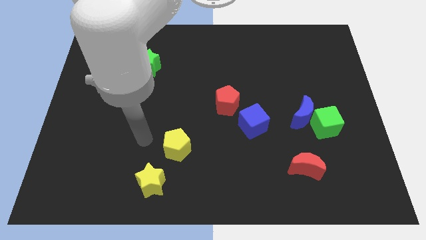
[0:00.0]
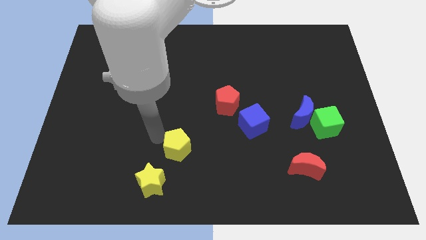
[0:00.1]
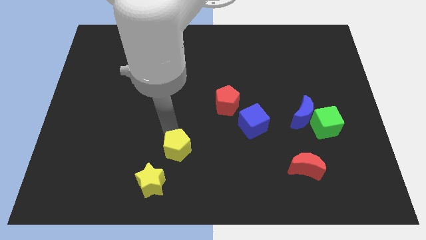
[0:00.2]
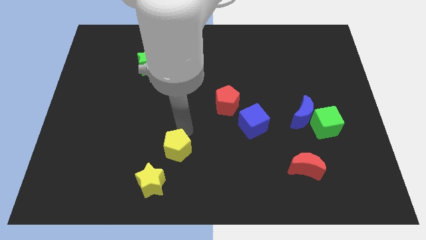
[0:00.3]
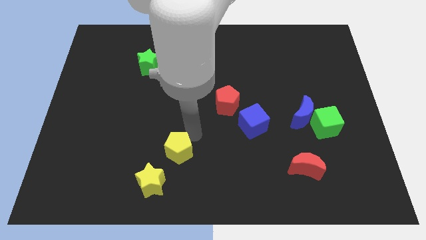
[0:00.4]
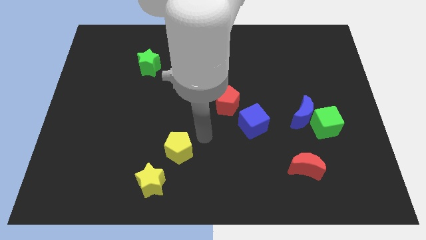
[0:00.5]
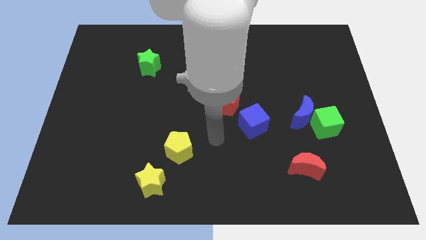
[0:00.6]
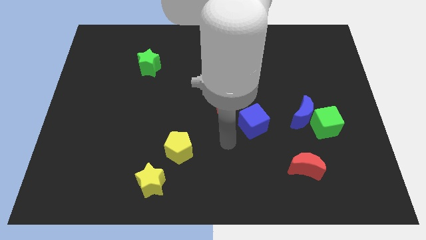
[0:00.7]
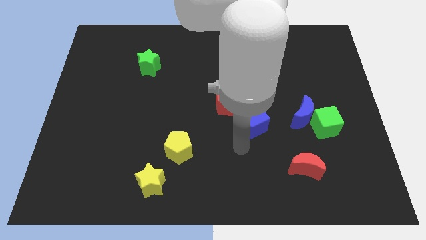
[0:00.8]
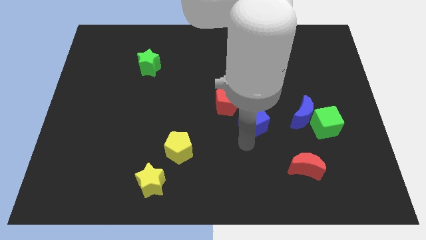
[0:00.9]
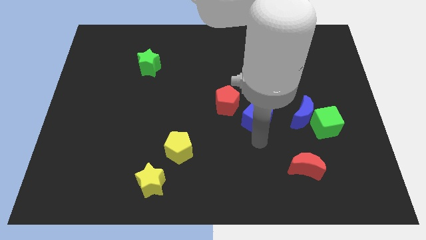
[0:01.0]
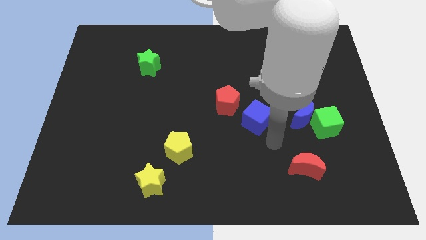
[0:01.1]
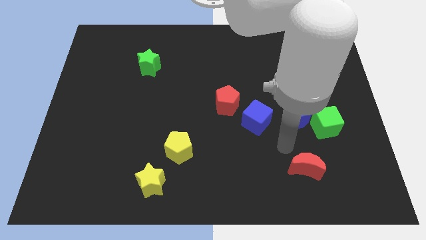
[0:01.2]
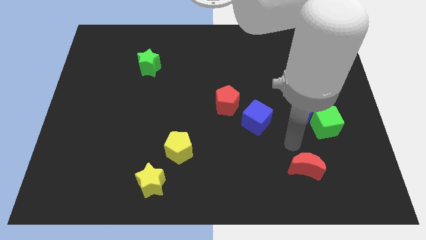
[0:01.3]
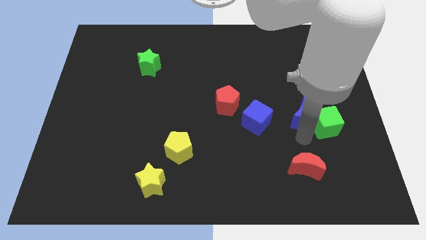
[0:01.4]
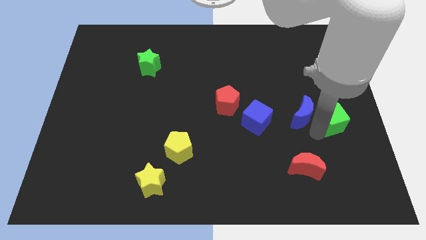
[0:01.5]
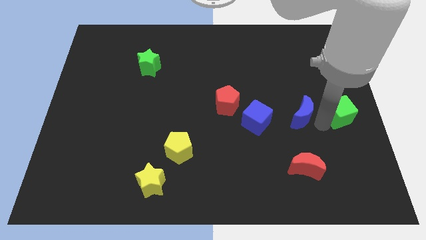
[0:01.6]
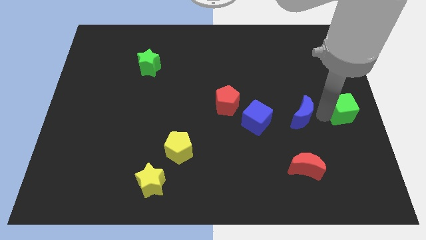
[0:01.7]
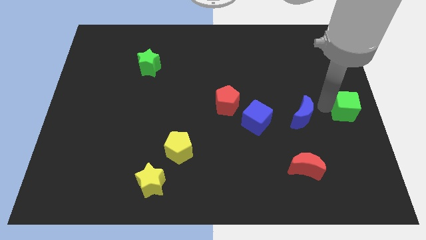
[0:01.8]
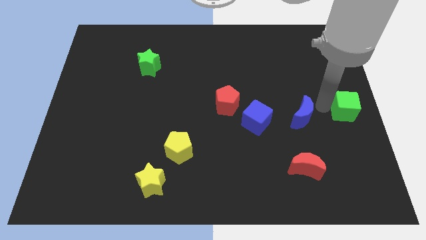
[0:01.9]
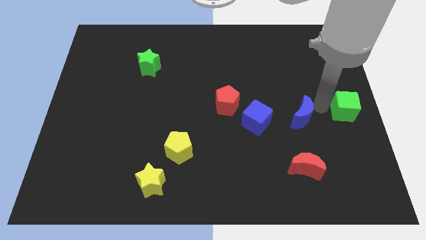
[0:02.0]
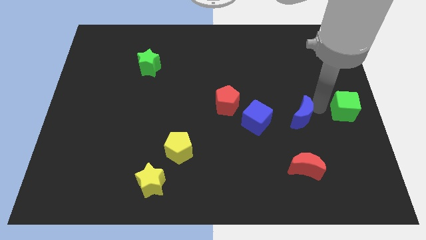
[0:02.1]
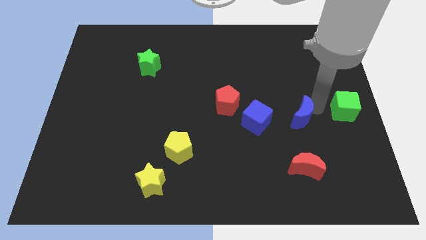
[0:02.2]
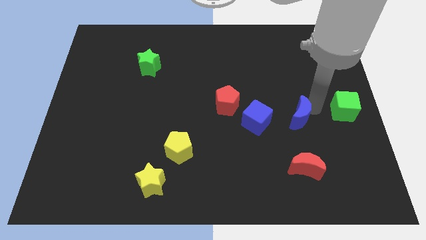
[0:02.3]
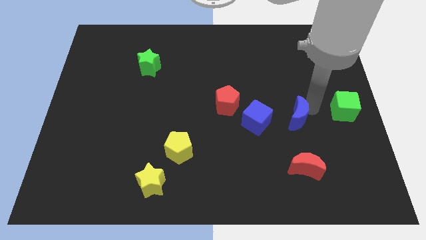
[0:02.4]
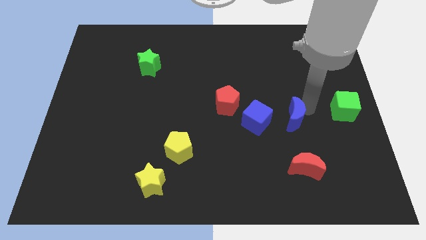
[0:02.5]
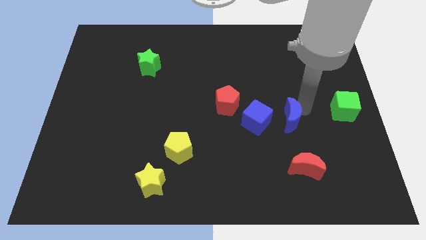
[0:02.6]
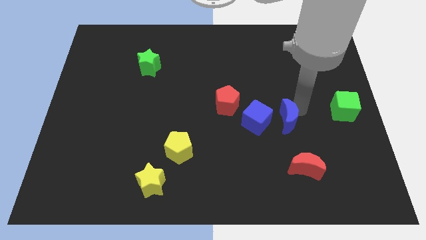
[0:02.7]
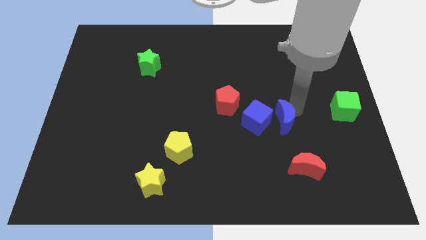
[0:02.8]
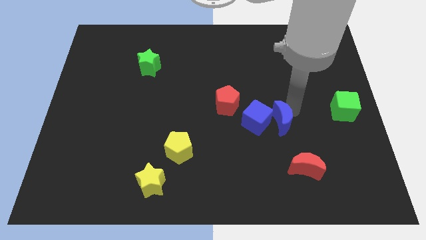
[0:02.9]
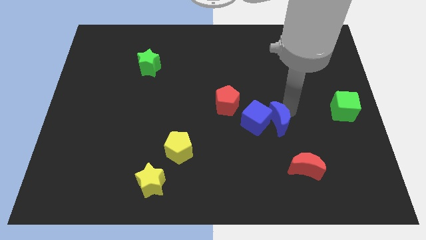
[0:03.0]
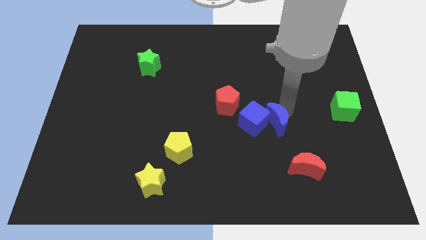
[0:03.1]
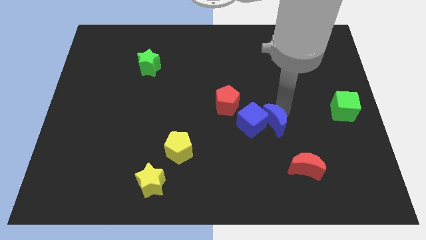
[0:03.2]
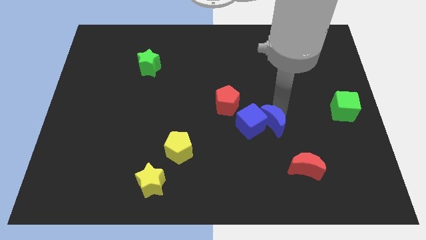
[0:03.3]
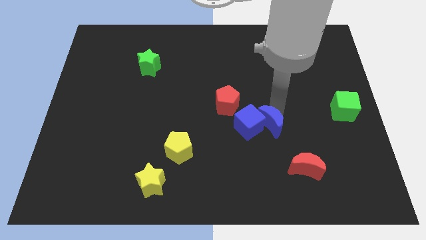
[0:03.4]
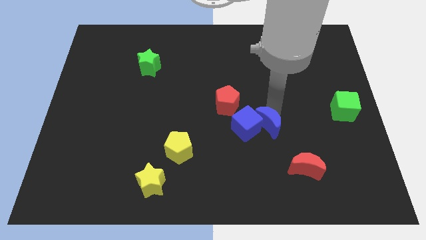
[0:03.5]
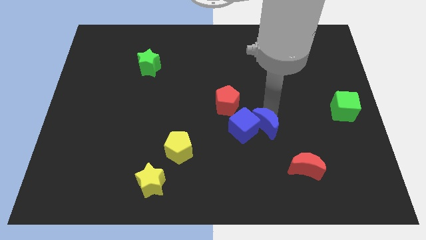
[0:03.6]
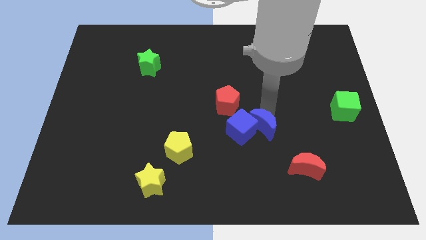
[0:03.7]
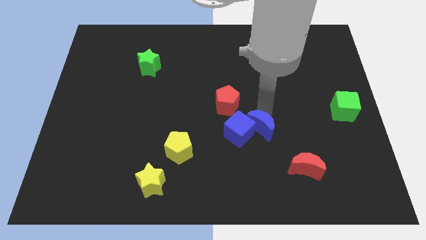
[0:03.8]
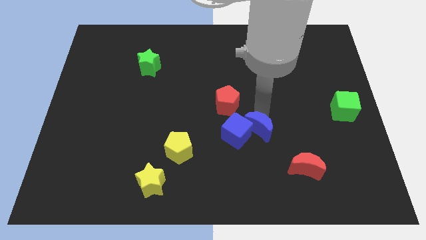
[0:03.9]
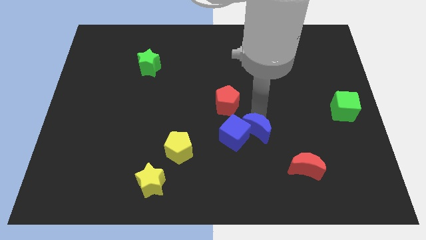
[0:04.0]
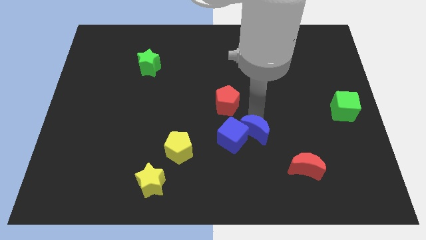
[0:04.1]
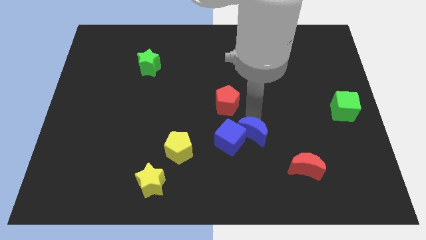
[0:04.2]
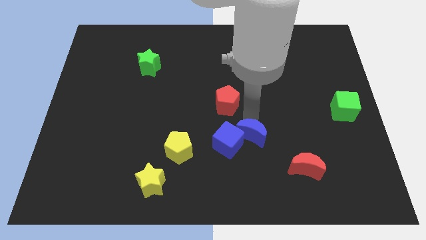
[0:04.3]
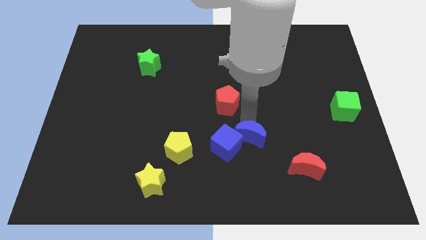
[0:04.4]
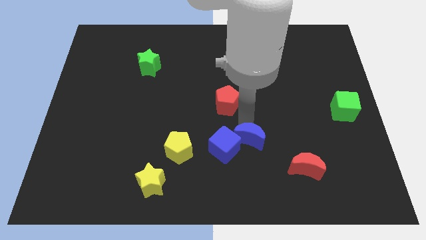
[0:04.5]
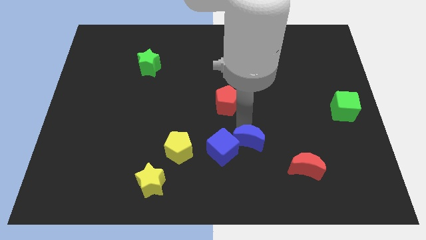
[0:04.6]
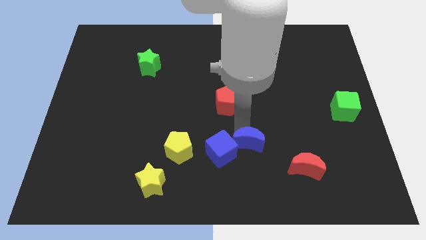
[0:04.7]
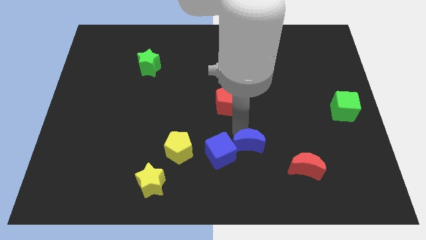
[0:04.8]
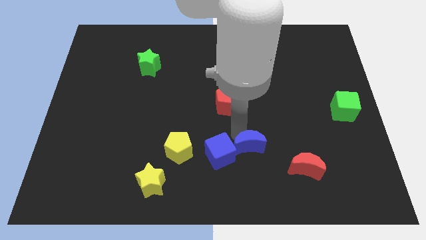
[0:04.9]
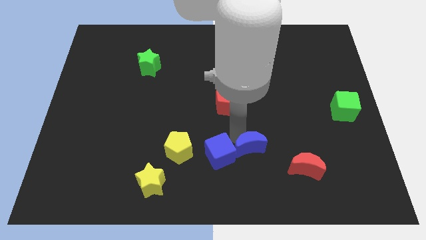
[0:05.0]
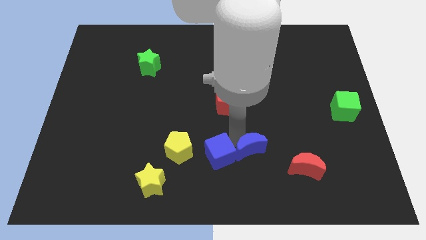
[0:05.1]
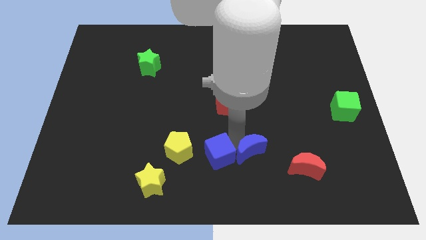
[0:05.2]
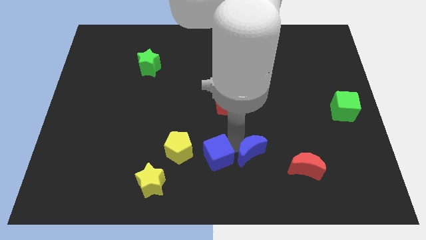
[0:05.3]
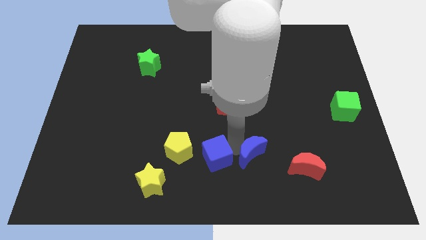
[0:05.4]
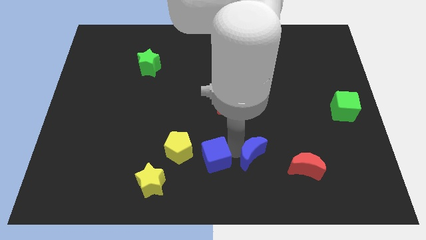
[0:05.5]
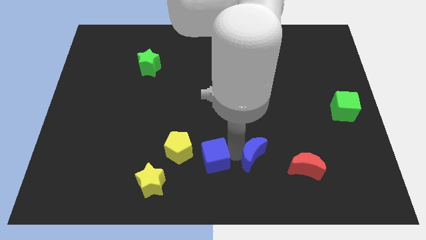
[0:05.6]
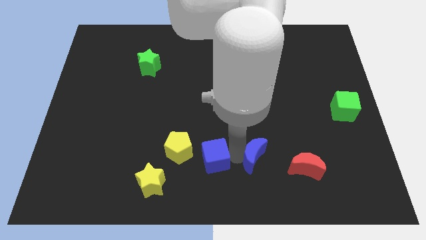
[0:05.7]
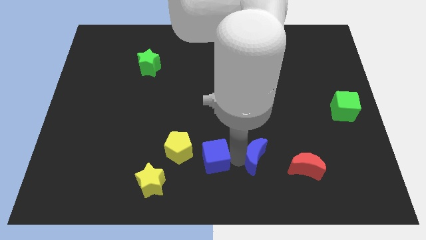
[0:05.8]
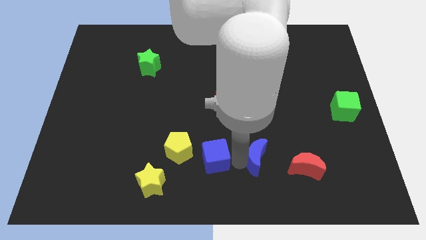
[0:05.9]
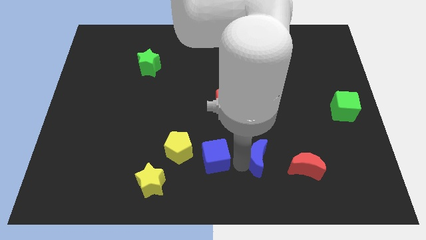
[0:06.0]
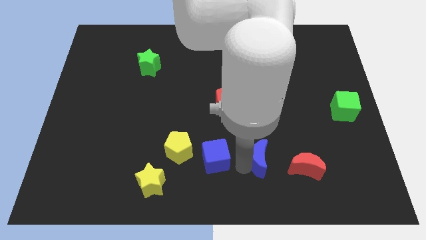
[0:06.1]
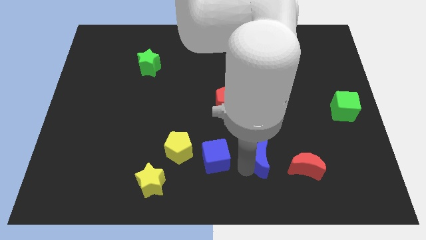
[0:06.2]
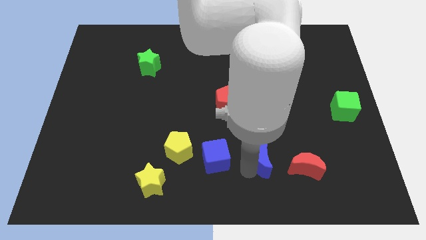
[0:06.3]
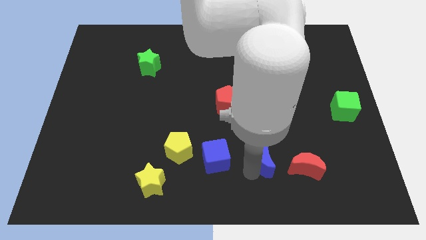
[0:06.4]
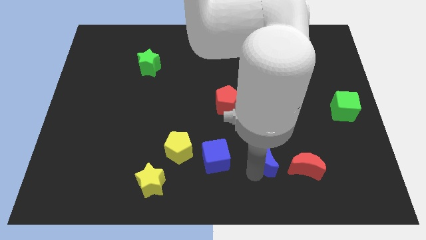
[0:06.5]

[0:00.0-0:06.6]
move the blue moon to the top left side of the red moon

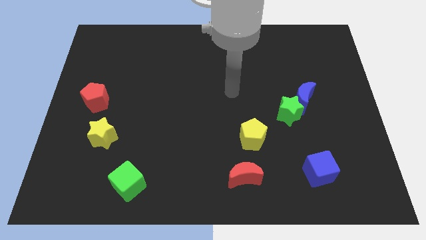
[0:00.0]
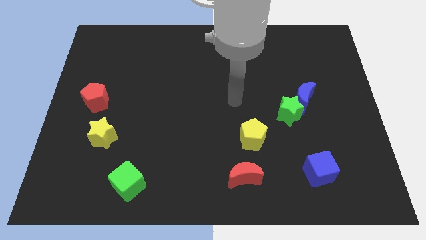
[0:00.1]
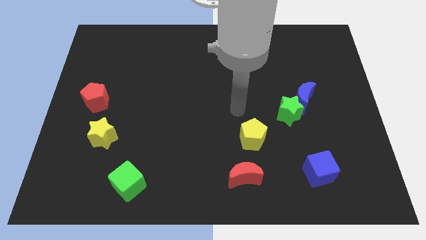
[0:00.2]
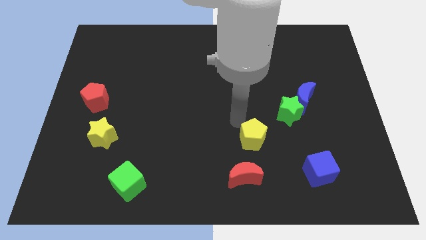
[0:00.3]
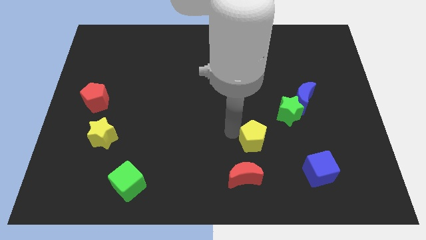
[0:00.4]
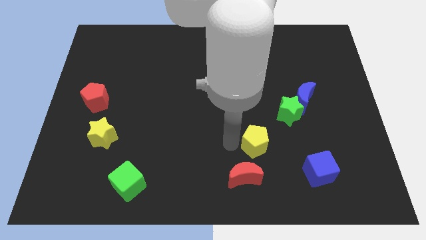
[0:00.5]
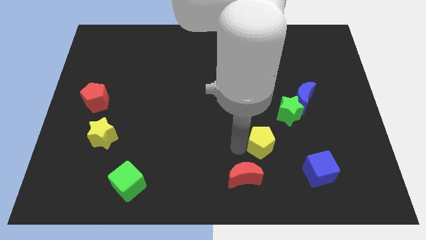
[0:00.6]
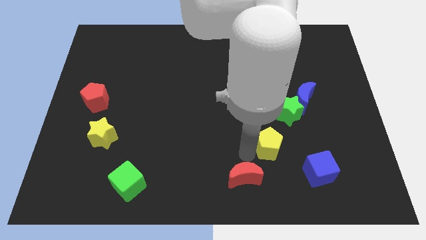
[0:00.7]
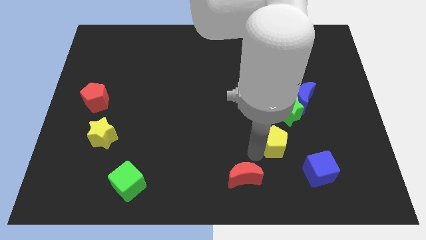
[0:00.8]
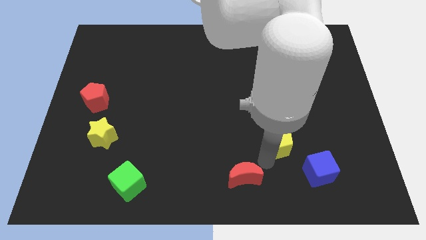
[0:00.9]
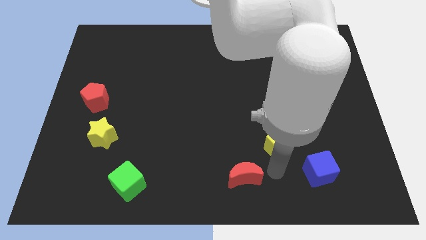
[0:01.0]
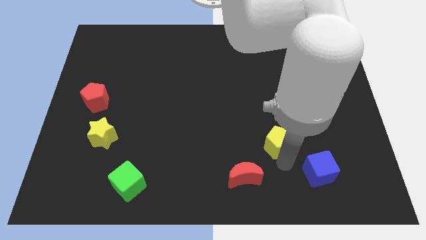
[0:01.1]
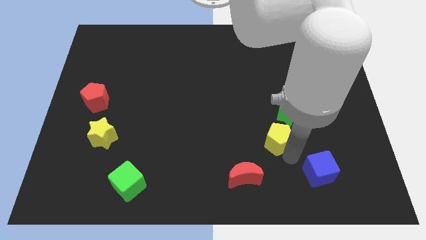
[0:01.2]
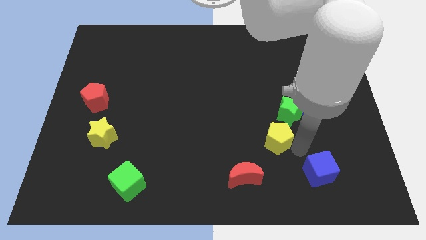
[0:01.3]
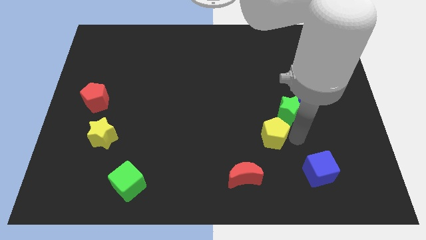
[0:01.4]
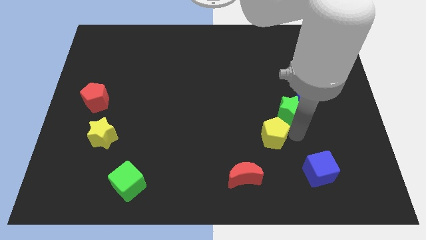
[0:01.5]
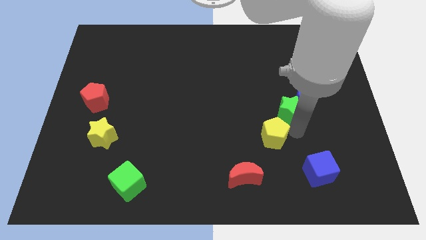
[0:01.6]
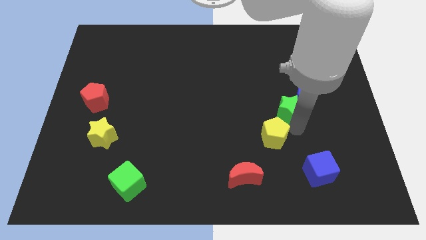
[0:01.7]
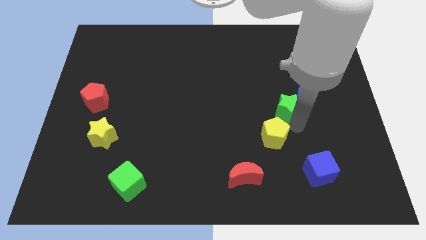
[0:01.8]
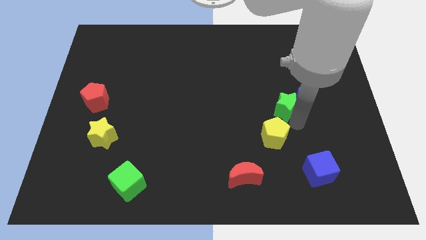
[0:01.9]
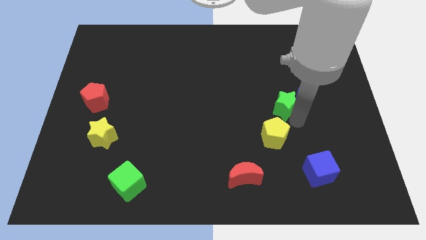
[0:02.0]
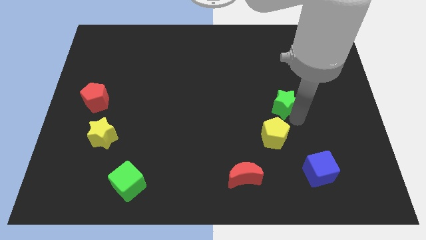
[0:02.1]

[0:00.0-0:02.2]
slide the green star to the top left of the blue moon
